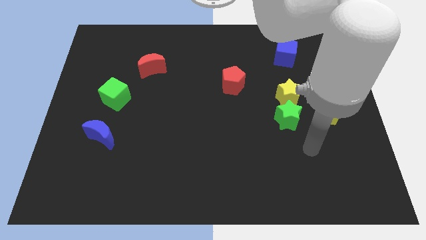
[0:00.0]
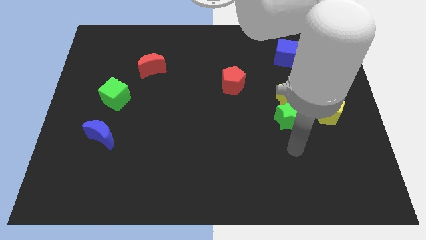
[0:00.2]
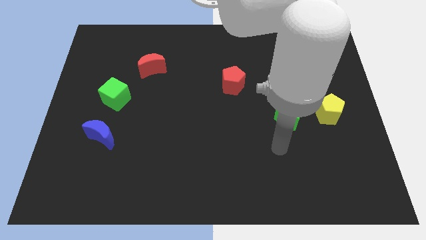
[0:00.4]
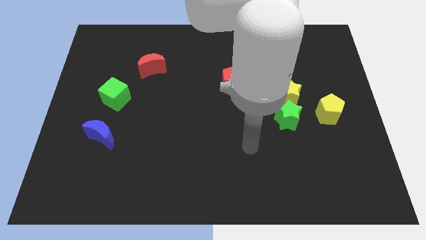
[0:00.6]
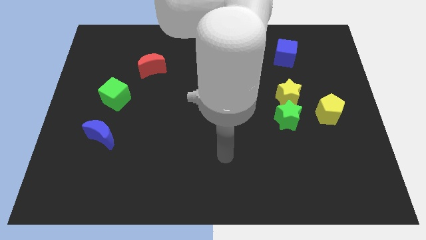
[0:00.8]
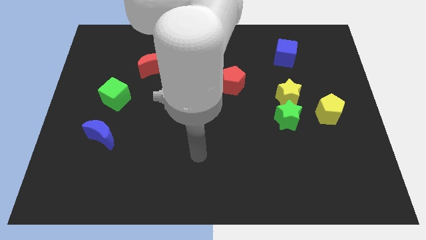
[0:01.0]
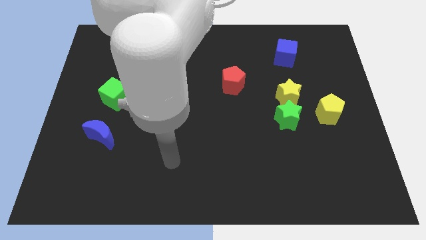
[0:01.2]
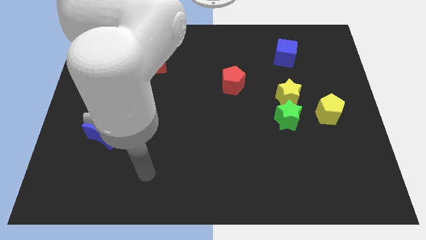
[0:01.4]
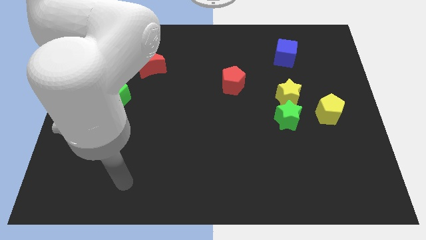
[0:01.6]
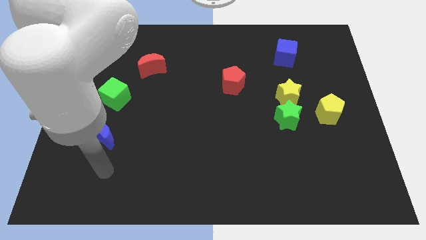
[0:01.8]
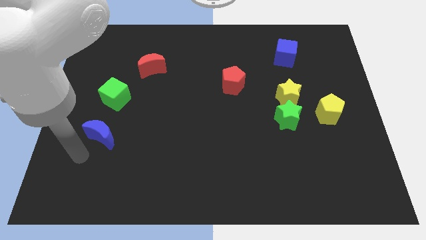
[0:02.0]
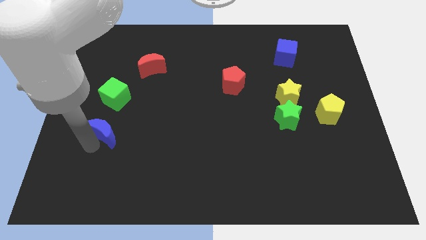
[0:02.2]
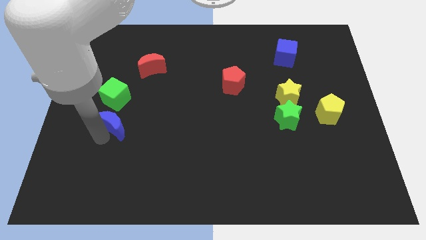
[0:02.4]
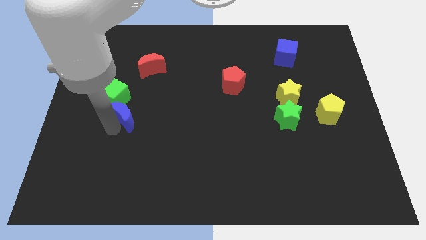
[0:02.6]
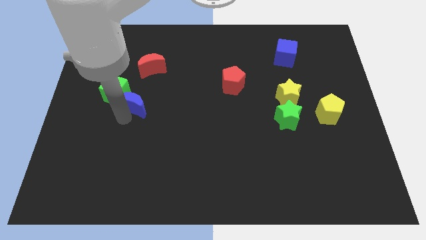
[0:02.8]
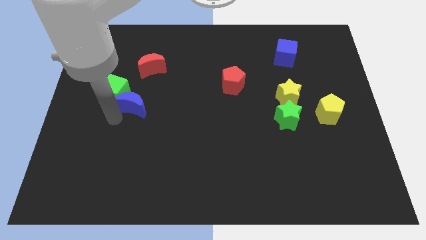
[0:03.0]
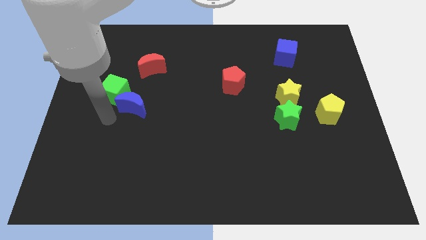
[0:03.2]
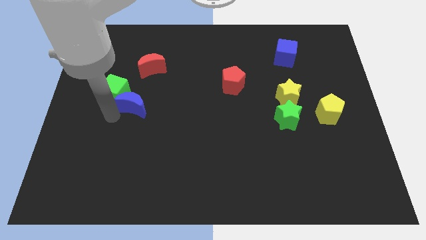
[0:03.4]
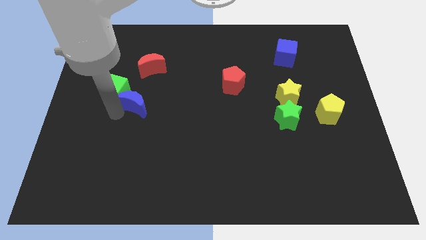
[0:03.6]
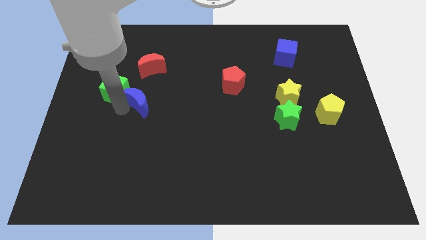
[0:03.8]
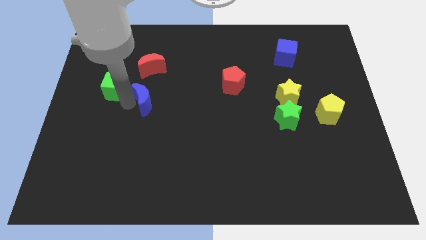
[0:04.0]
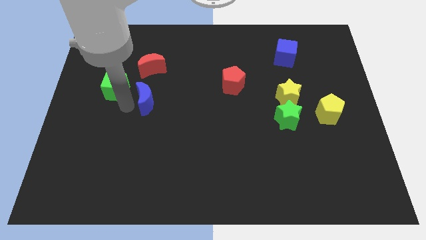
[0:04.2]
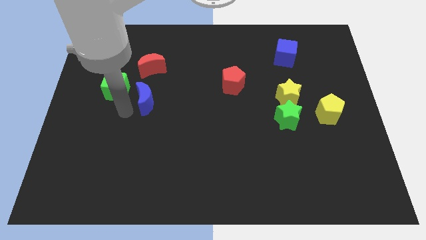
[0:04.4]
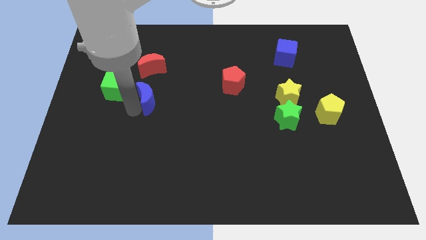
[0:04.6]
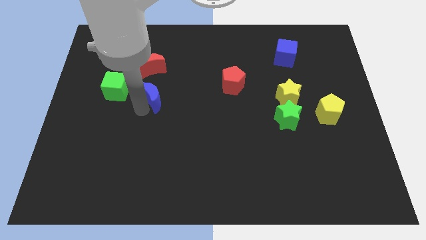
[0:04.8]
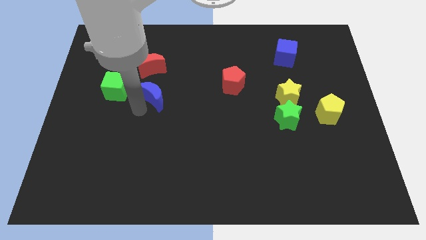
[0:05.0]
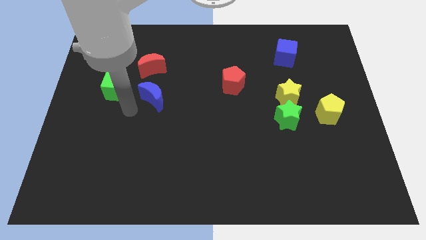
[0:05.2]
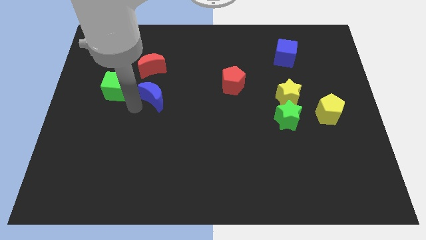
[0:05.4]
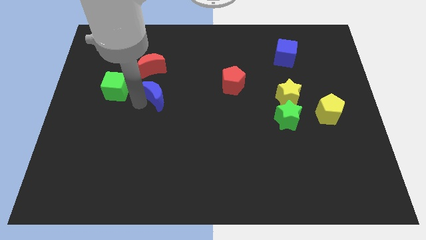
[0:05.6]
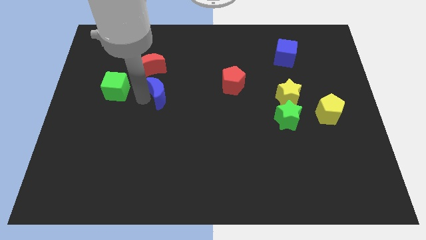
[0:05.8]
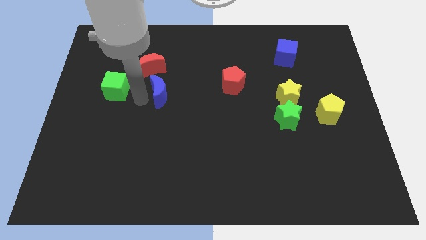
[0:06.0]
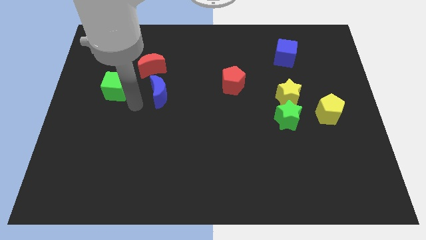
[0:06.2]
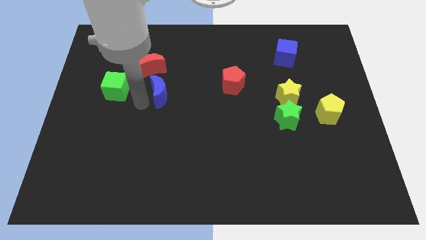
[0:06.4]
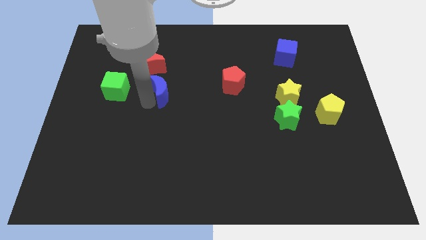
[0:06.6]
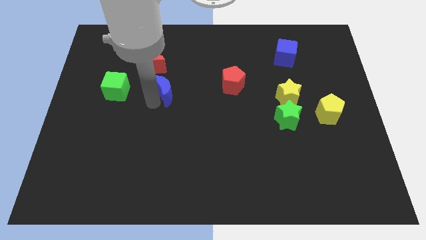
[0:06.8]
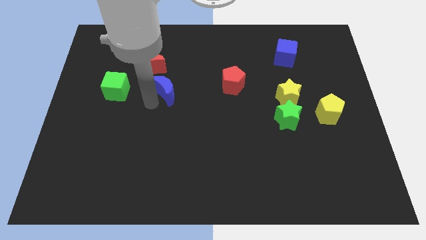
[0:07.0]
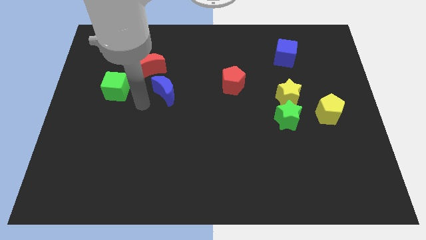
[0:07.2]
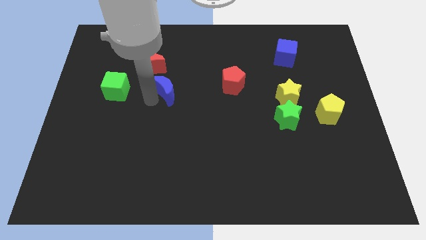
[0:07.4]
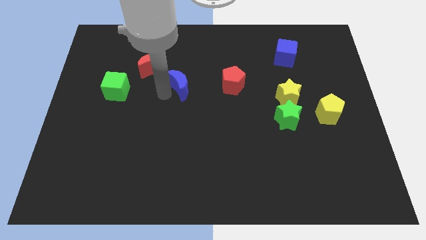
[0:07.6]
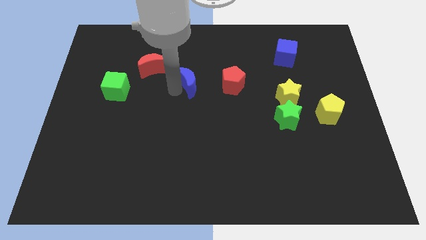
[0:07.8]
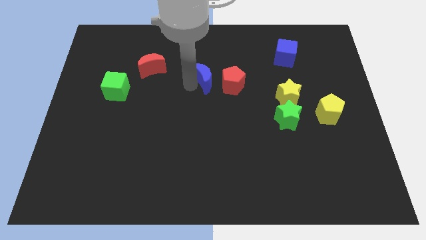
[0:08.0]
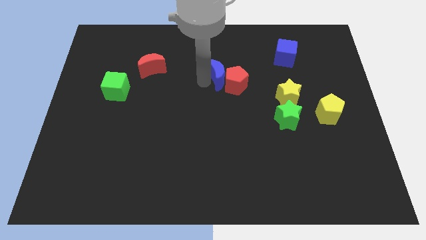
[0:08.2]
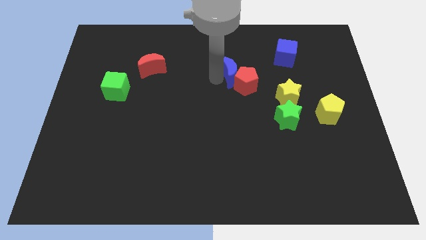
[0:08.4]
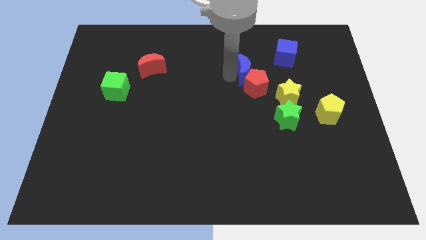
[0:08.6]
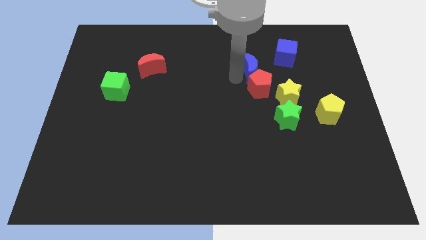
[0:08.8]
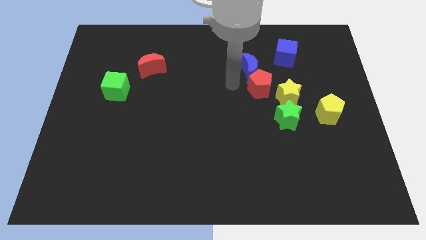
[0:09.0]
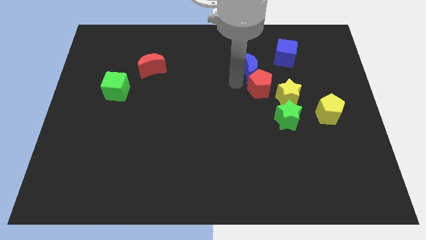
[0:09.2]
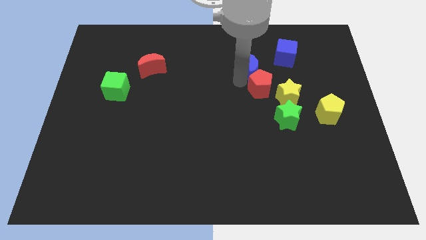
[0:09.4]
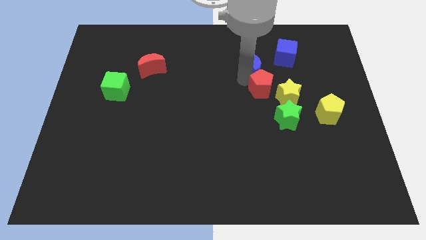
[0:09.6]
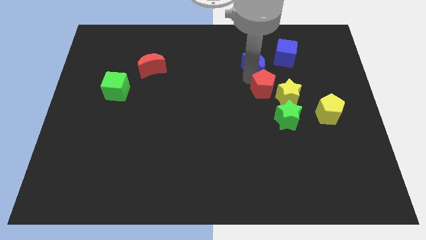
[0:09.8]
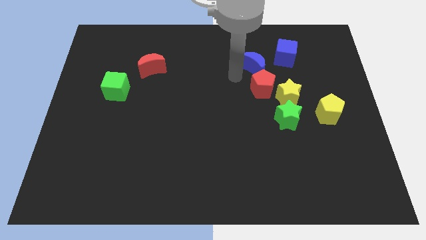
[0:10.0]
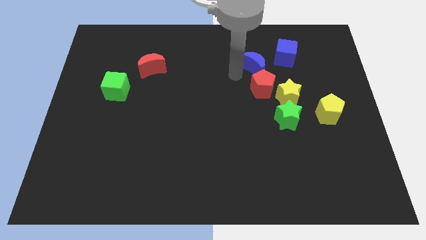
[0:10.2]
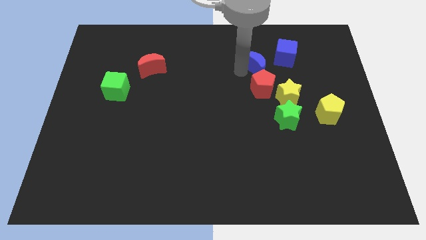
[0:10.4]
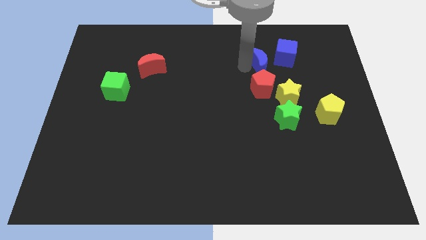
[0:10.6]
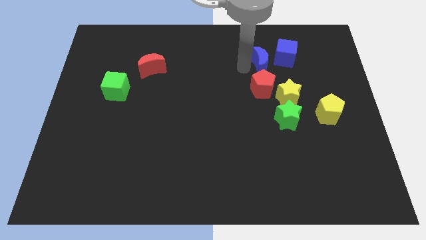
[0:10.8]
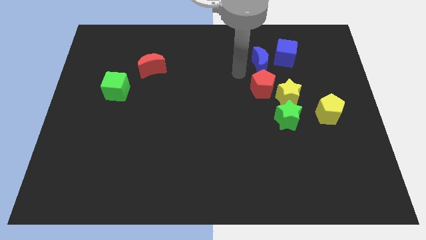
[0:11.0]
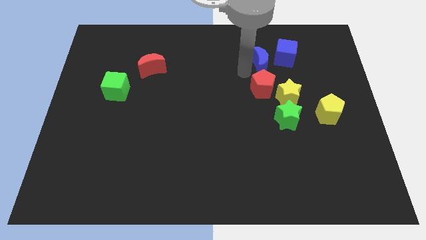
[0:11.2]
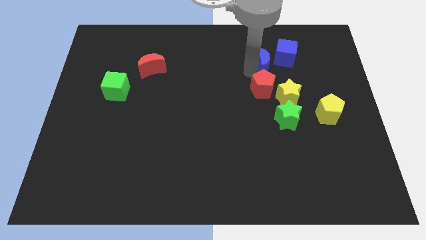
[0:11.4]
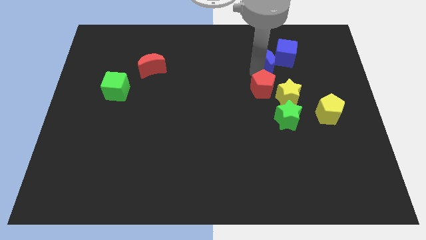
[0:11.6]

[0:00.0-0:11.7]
put the blue moon to the blue cube
